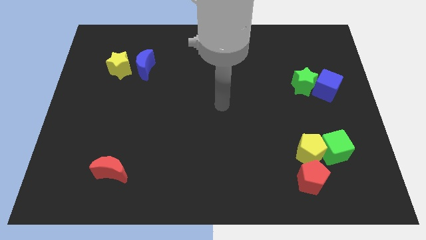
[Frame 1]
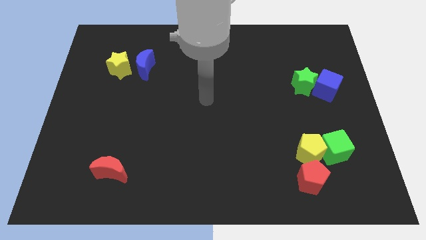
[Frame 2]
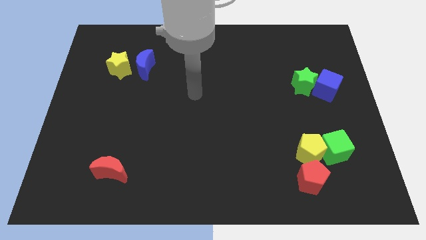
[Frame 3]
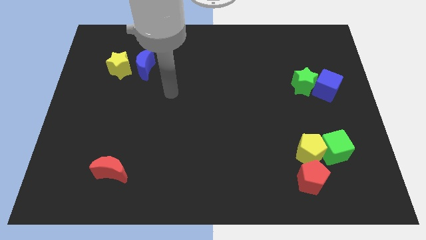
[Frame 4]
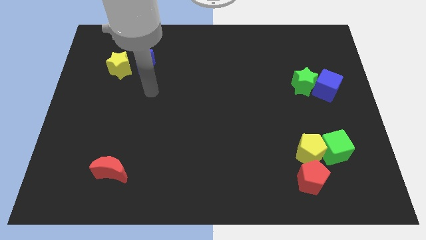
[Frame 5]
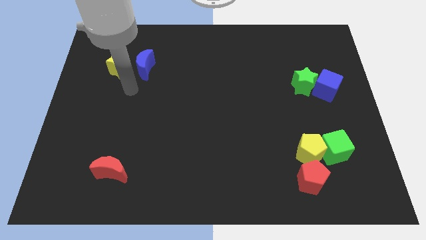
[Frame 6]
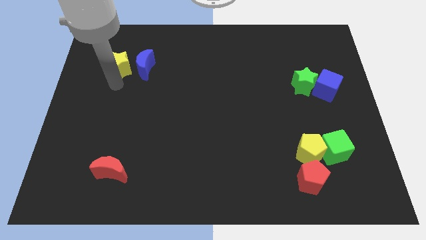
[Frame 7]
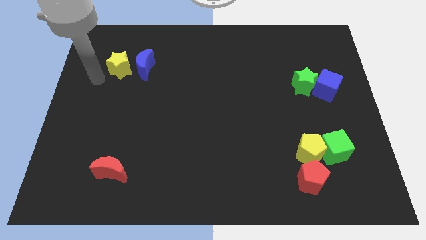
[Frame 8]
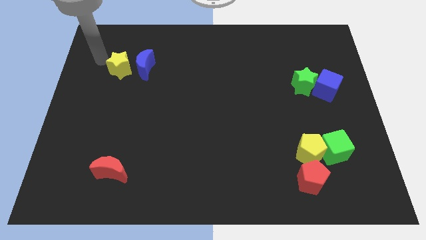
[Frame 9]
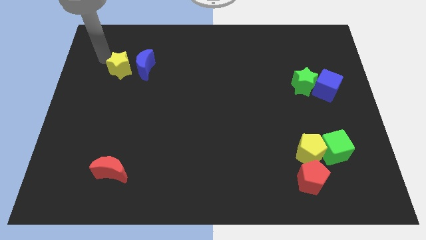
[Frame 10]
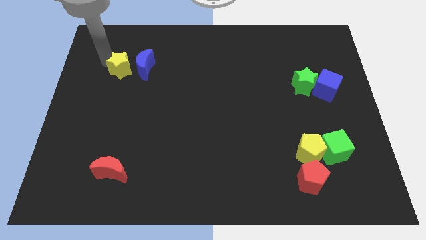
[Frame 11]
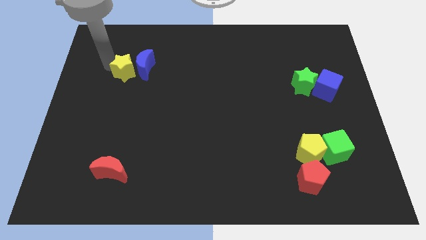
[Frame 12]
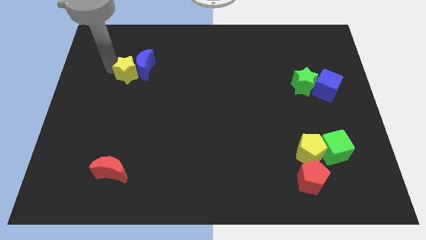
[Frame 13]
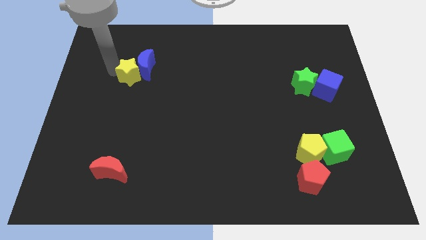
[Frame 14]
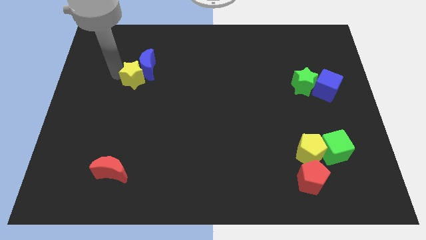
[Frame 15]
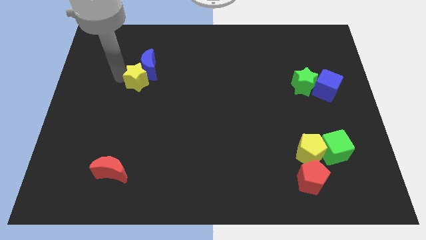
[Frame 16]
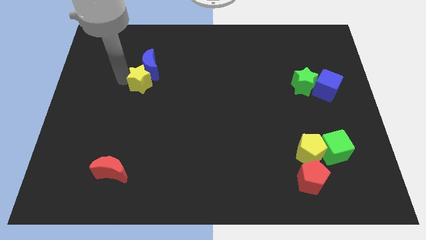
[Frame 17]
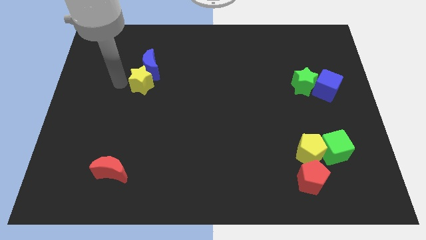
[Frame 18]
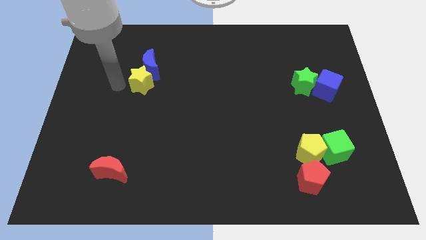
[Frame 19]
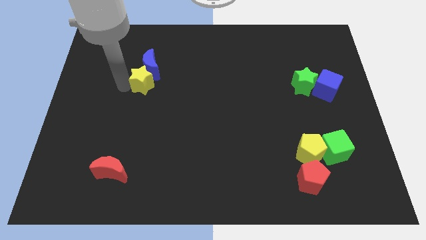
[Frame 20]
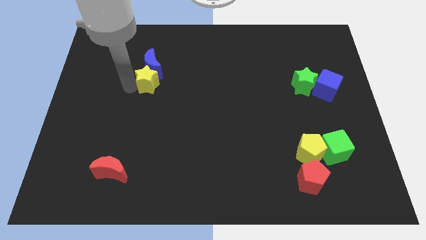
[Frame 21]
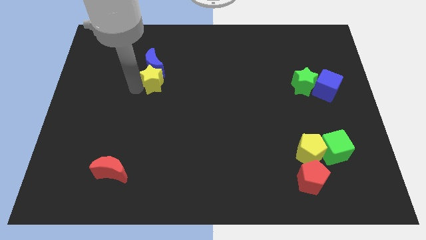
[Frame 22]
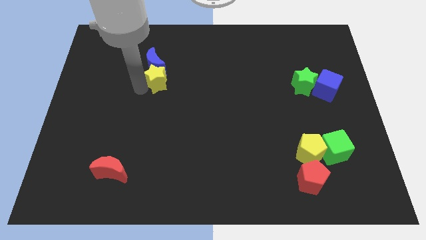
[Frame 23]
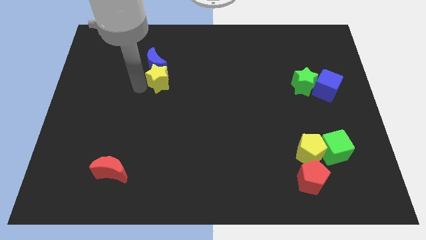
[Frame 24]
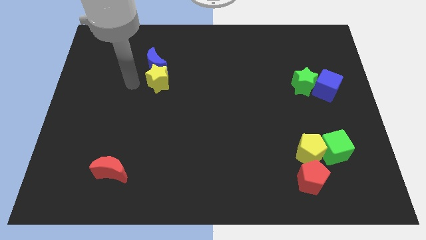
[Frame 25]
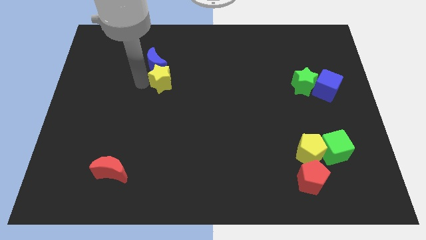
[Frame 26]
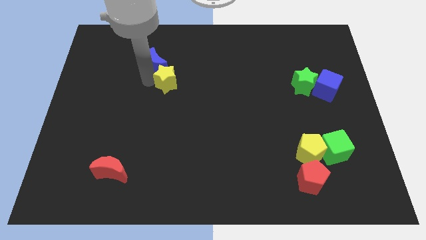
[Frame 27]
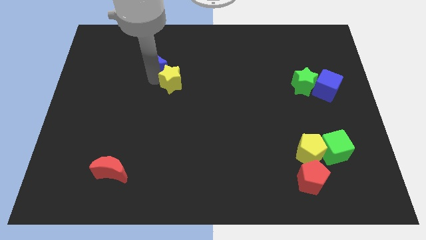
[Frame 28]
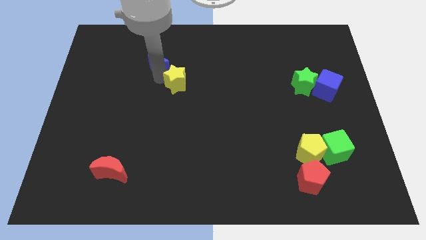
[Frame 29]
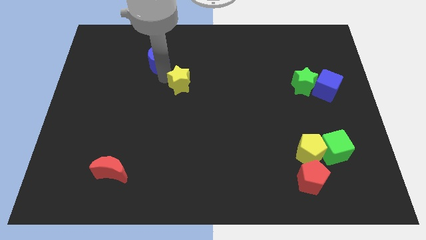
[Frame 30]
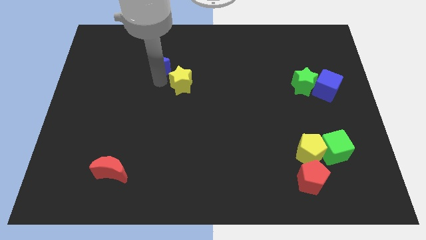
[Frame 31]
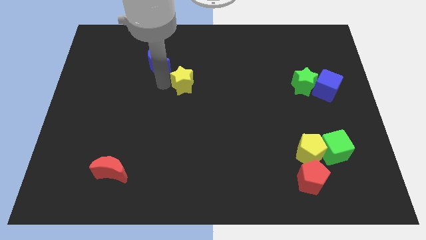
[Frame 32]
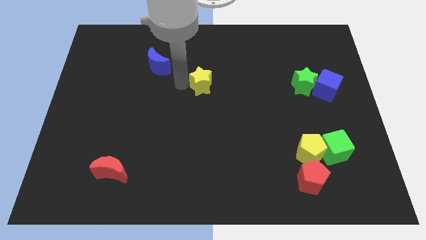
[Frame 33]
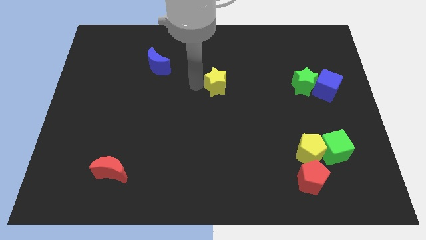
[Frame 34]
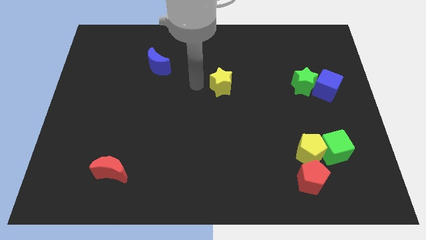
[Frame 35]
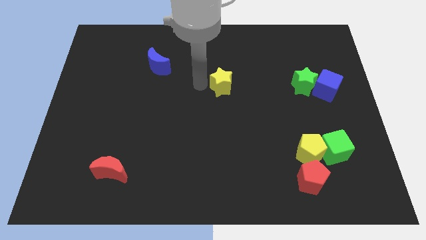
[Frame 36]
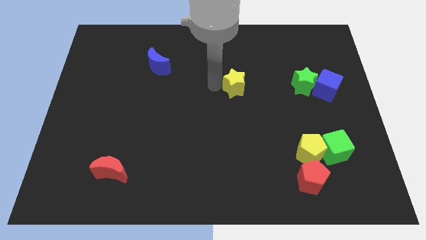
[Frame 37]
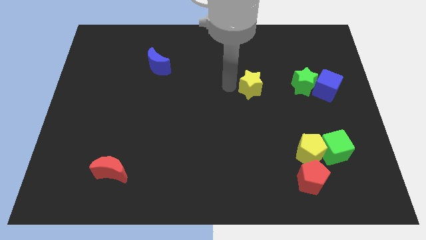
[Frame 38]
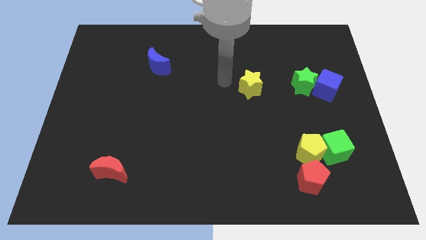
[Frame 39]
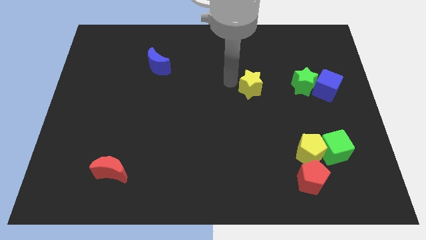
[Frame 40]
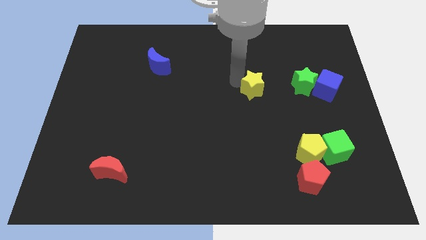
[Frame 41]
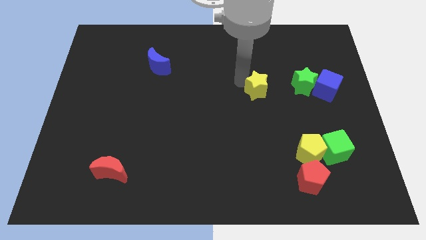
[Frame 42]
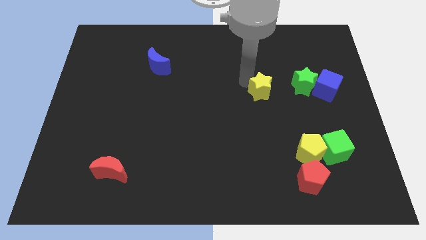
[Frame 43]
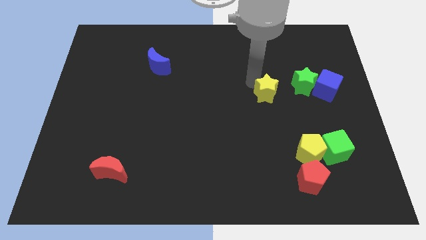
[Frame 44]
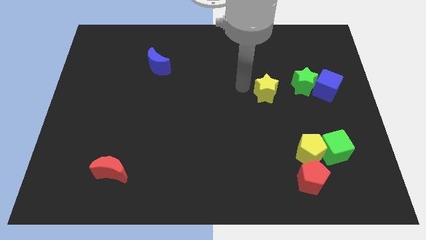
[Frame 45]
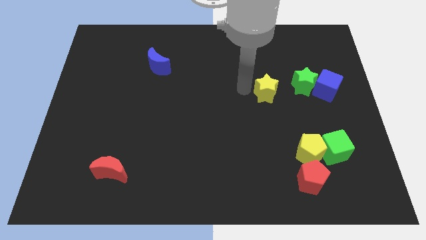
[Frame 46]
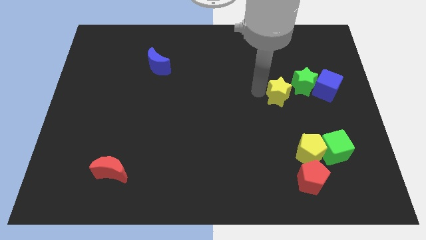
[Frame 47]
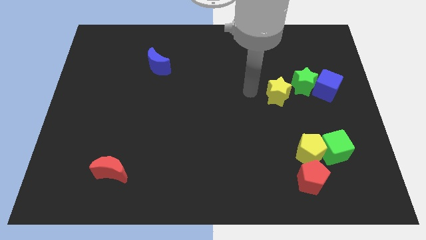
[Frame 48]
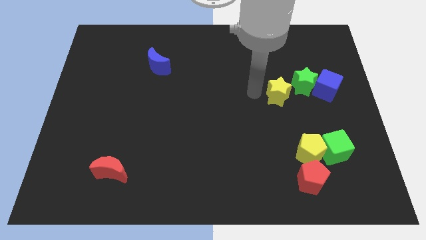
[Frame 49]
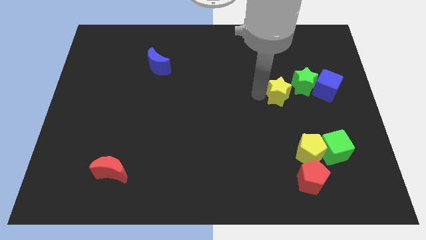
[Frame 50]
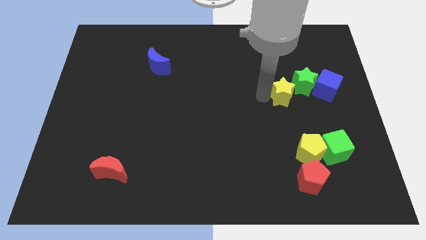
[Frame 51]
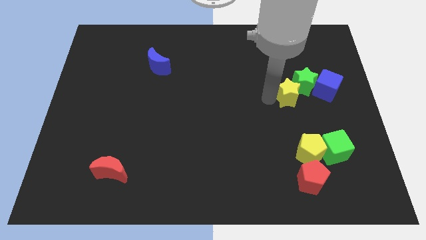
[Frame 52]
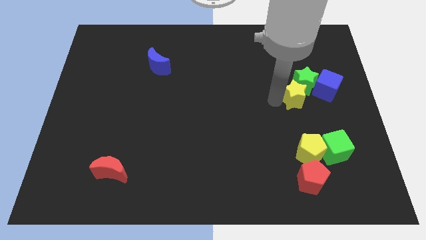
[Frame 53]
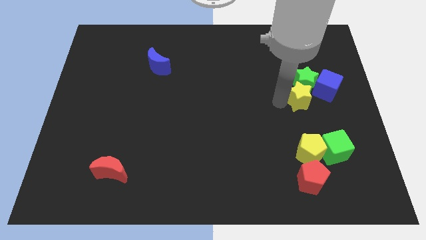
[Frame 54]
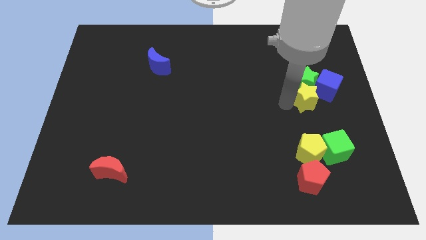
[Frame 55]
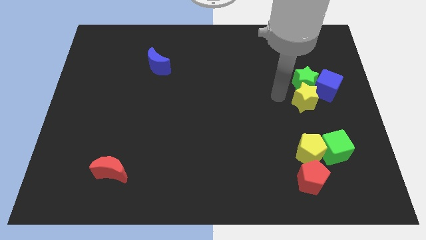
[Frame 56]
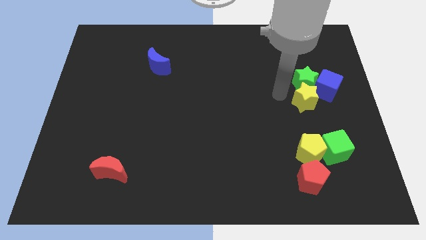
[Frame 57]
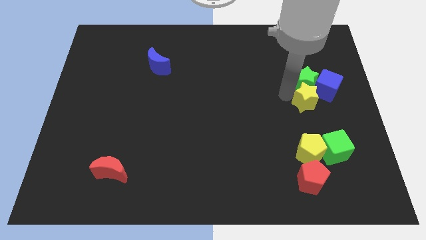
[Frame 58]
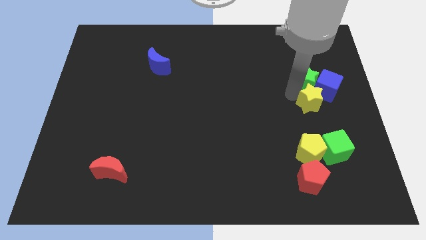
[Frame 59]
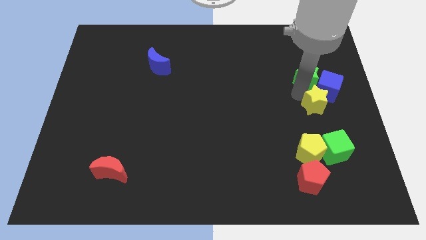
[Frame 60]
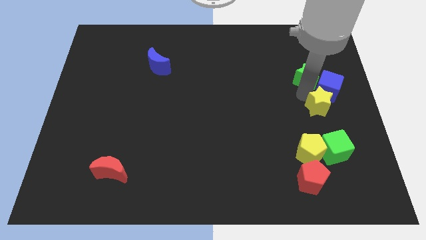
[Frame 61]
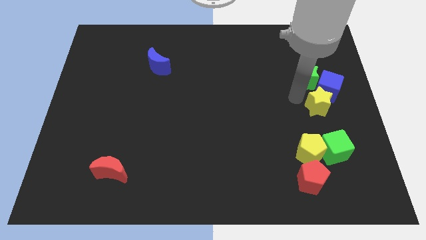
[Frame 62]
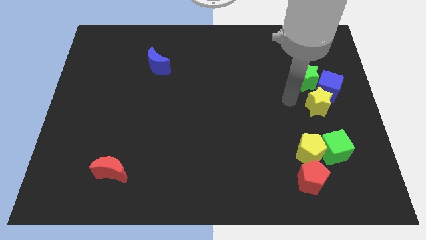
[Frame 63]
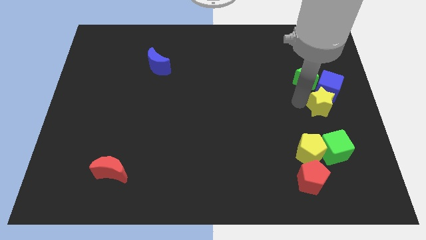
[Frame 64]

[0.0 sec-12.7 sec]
put the yellow star to the center right
